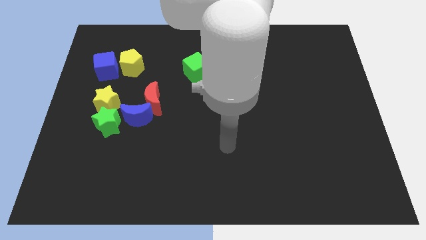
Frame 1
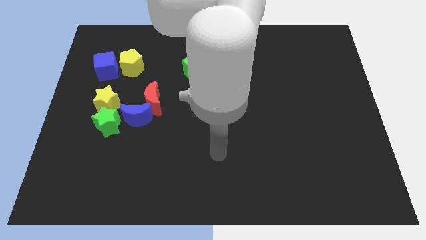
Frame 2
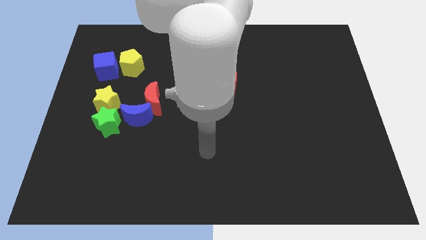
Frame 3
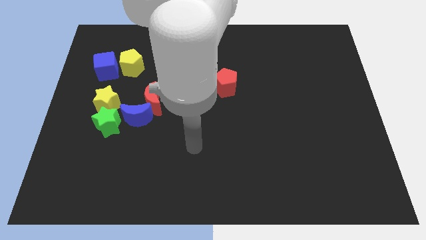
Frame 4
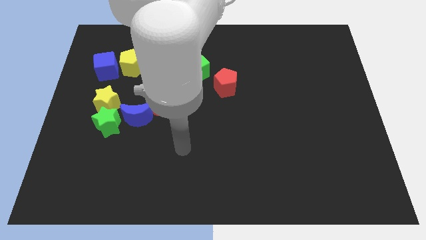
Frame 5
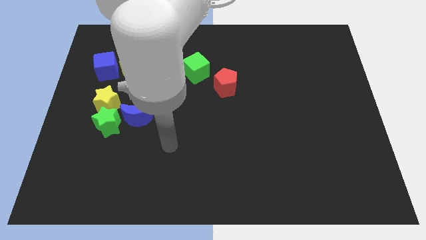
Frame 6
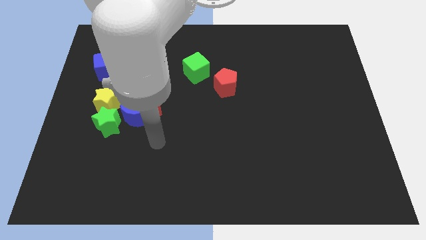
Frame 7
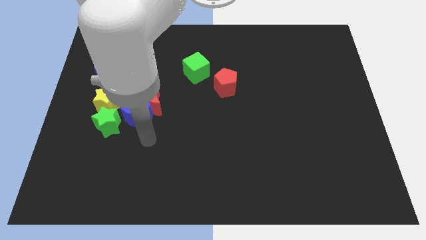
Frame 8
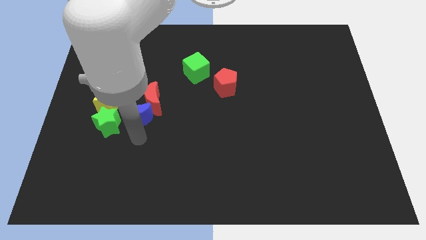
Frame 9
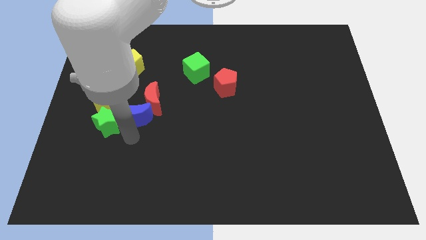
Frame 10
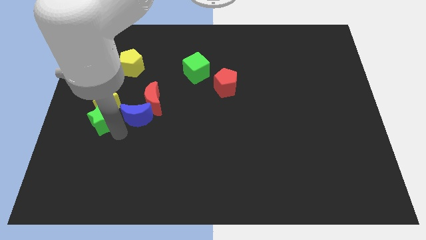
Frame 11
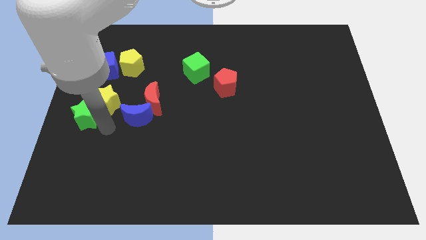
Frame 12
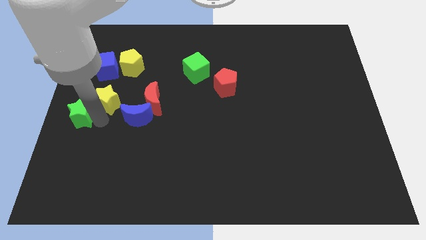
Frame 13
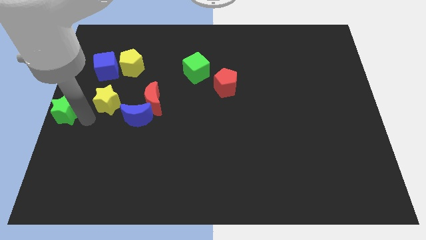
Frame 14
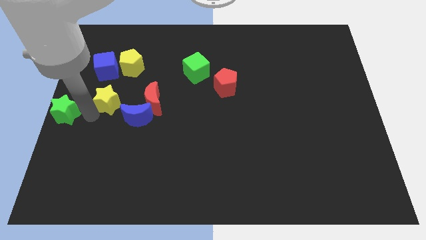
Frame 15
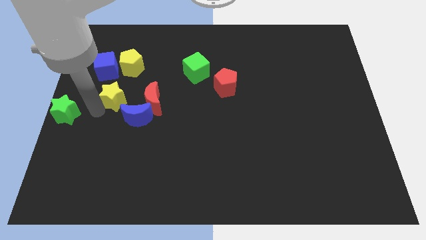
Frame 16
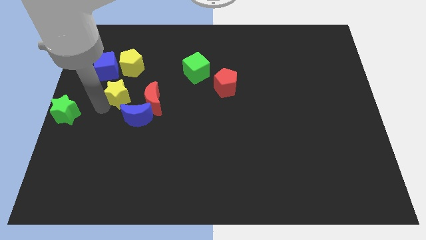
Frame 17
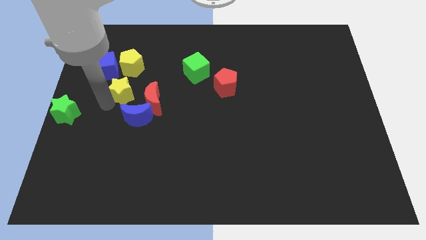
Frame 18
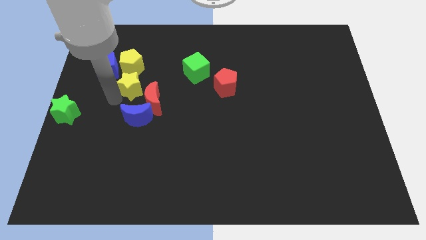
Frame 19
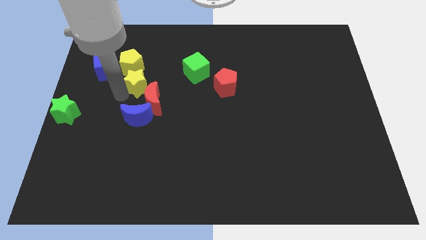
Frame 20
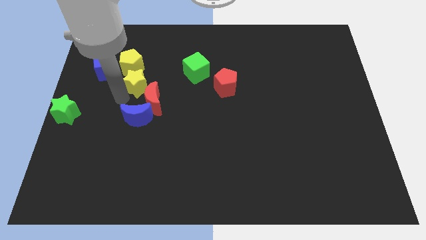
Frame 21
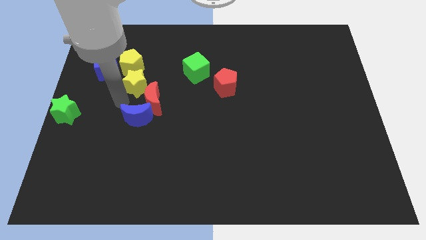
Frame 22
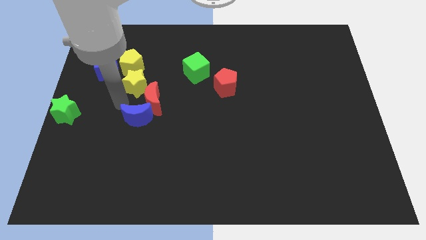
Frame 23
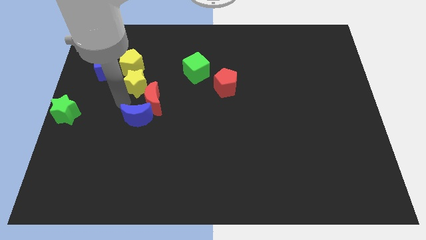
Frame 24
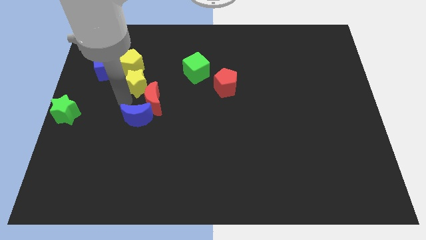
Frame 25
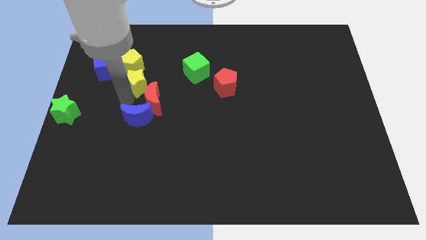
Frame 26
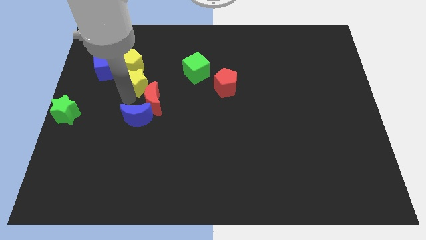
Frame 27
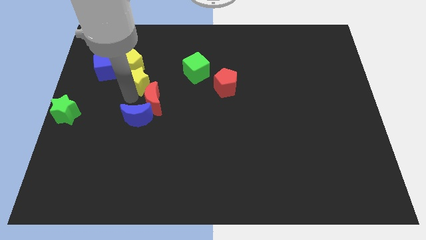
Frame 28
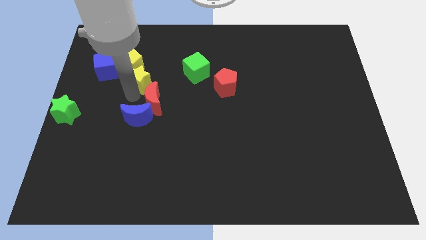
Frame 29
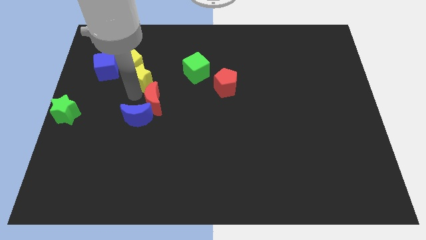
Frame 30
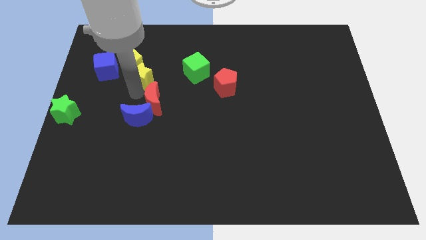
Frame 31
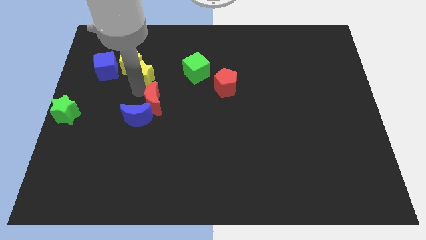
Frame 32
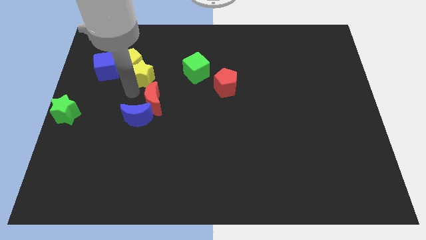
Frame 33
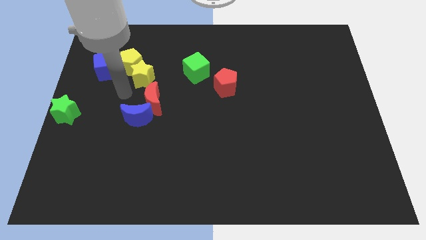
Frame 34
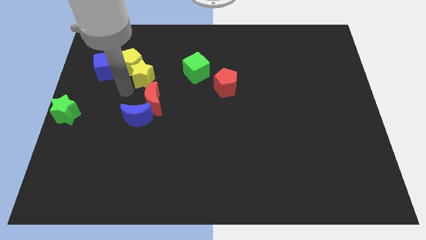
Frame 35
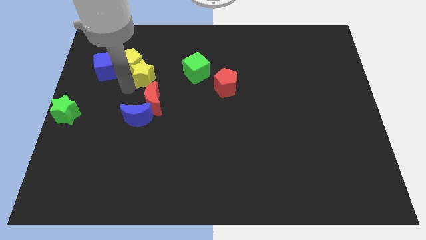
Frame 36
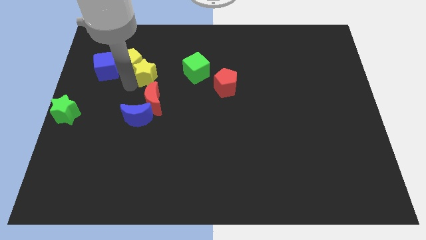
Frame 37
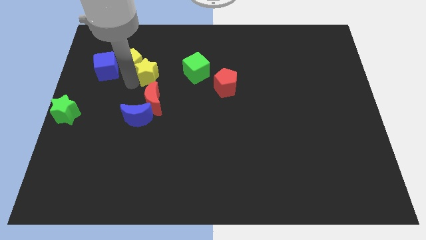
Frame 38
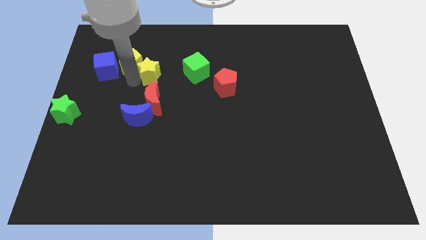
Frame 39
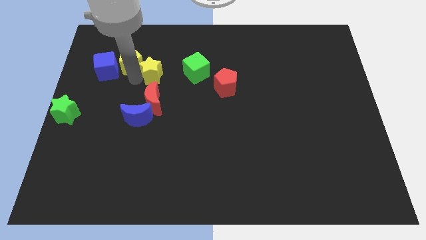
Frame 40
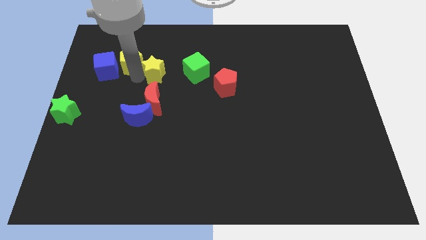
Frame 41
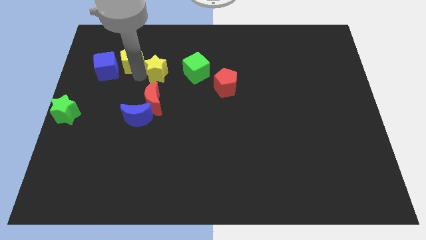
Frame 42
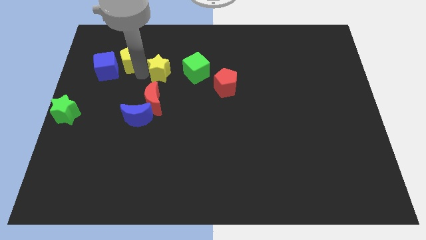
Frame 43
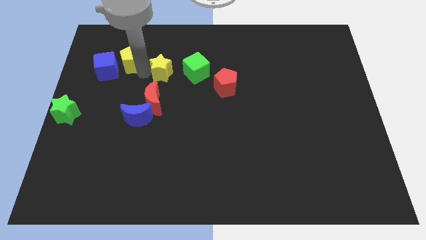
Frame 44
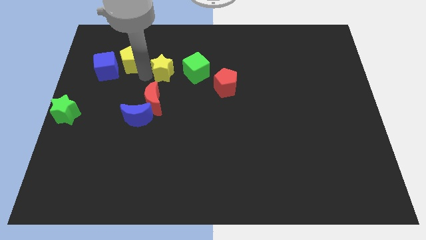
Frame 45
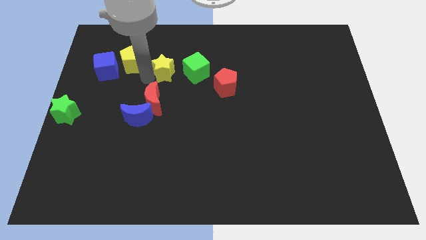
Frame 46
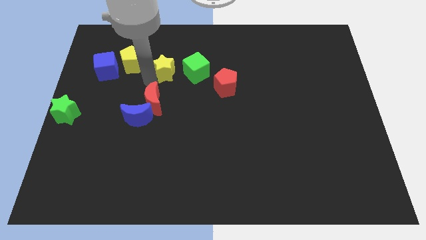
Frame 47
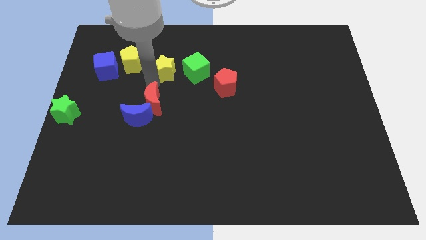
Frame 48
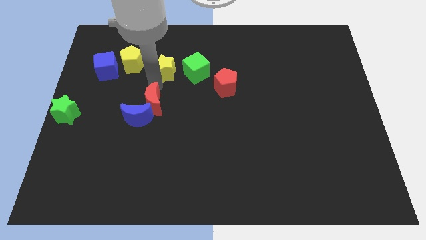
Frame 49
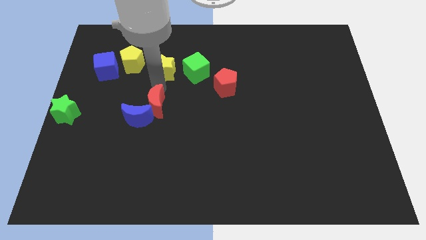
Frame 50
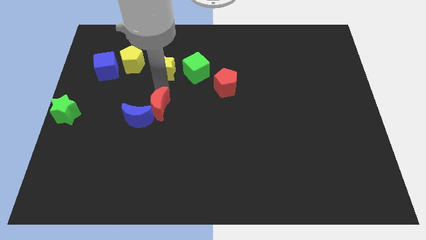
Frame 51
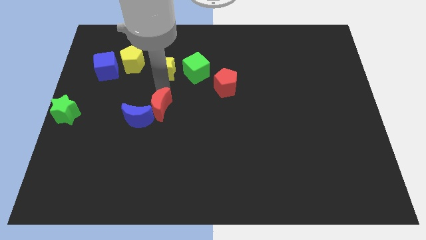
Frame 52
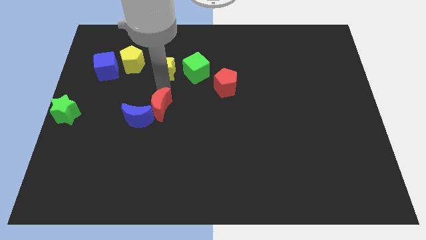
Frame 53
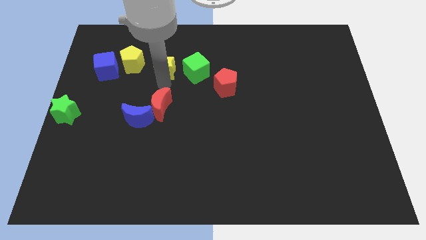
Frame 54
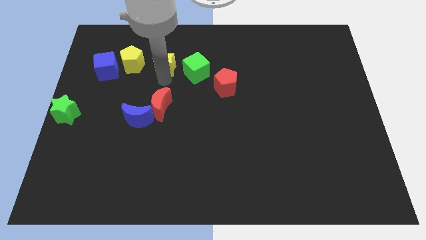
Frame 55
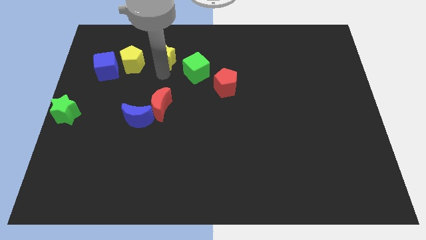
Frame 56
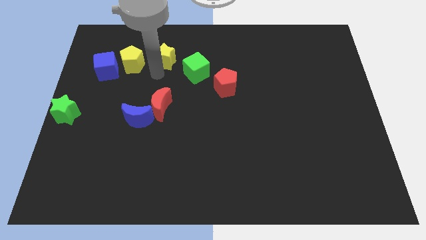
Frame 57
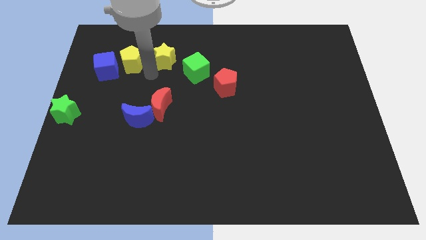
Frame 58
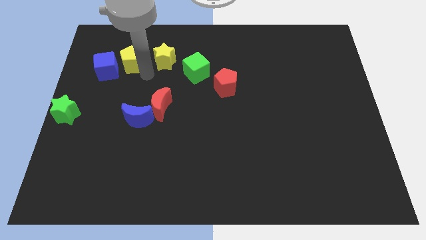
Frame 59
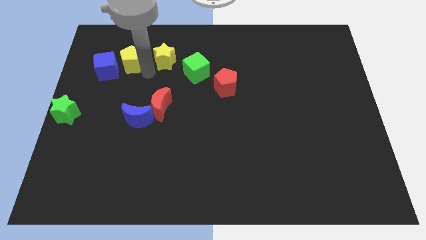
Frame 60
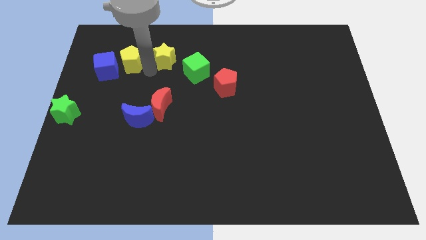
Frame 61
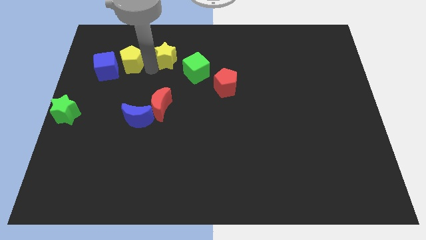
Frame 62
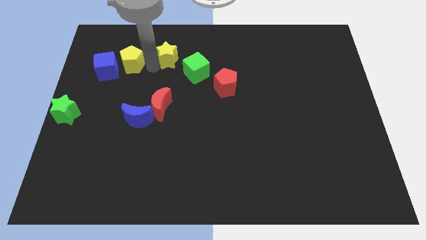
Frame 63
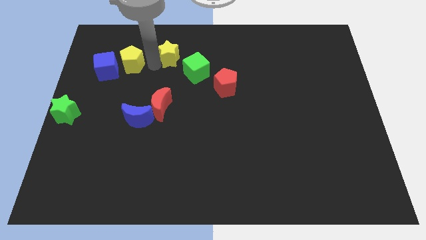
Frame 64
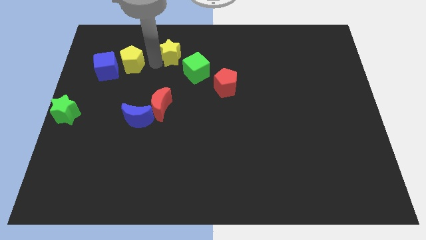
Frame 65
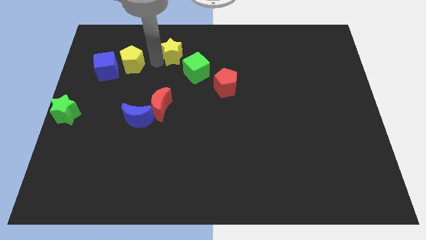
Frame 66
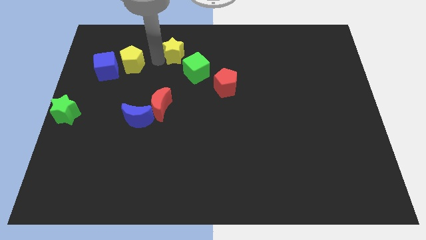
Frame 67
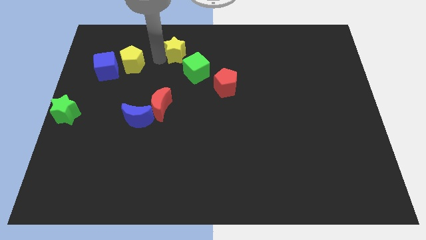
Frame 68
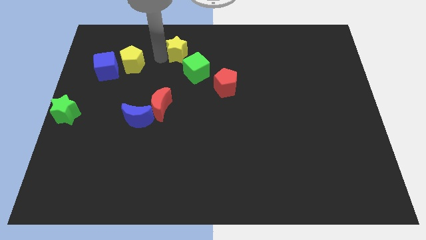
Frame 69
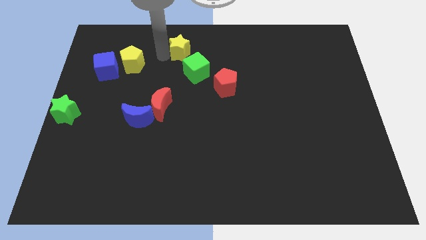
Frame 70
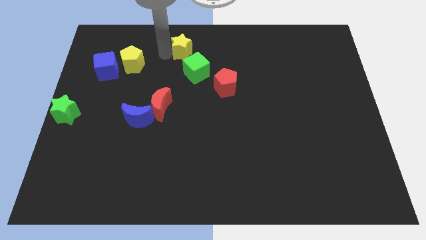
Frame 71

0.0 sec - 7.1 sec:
slide the yellow star to the top side
